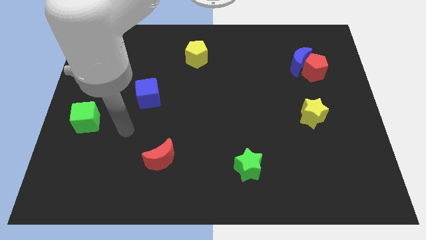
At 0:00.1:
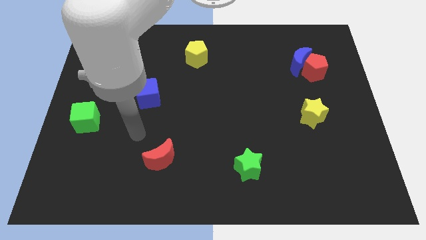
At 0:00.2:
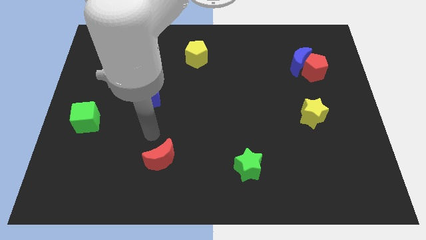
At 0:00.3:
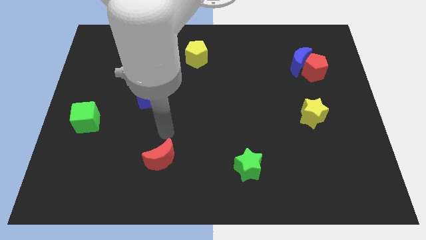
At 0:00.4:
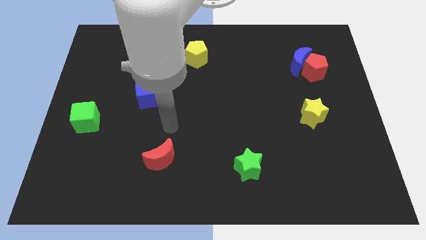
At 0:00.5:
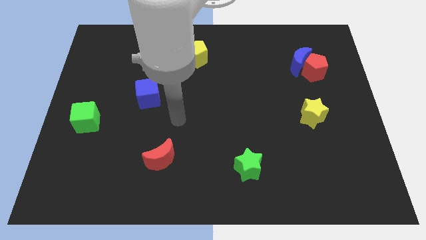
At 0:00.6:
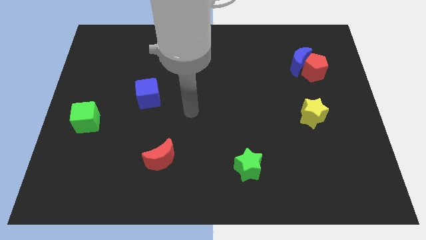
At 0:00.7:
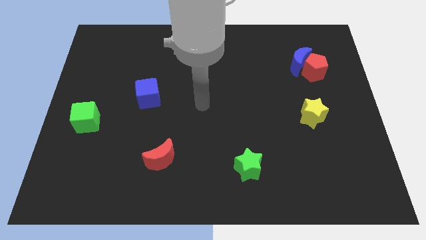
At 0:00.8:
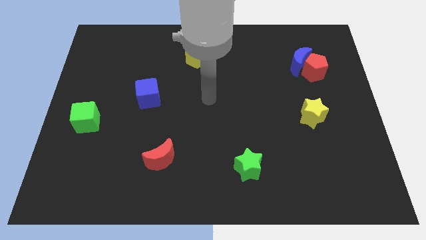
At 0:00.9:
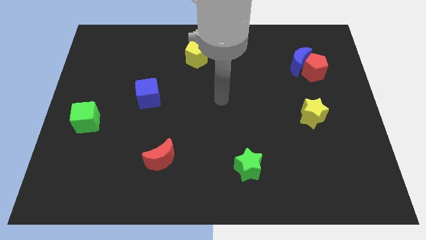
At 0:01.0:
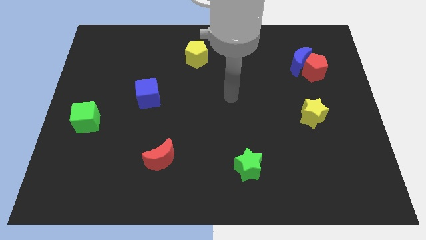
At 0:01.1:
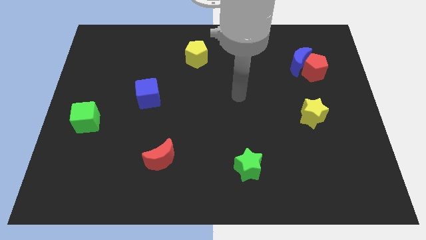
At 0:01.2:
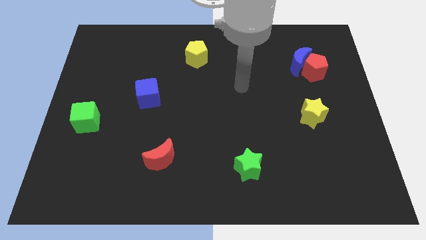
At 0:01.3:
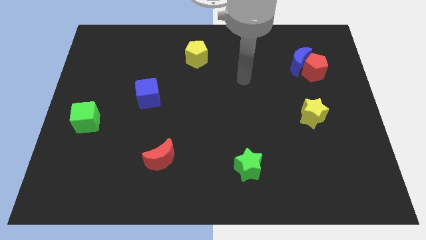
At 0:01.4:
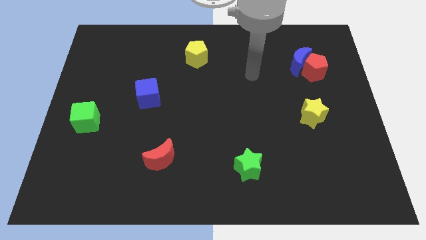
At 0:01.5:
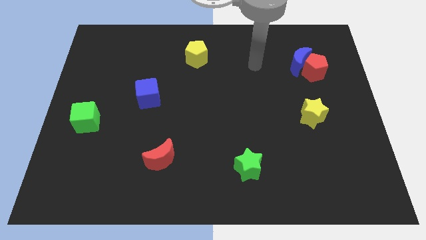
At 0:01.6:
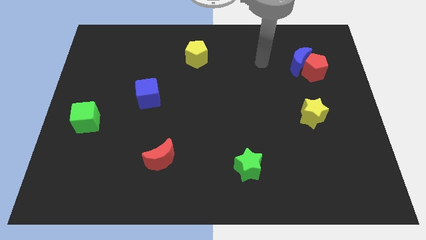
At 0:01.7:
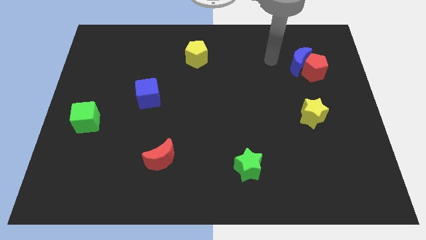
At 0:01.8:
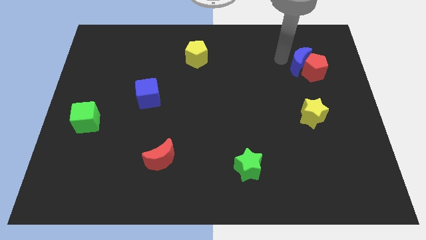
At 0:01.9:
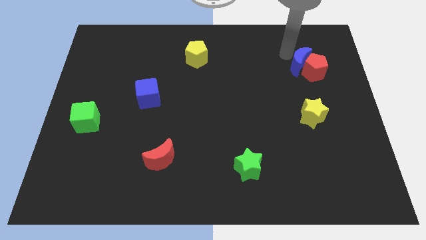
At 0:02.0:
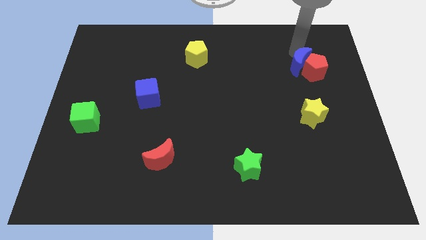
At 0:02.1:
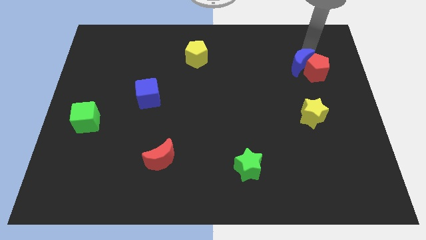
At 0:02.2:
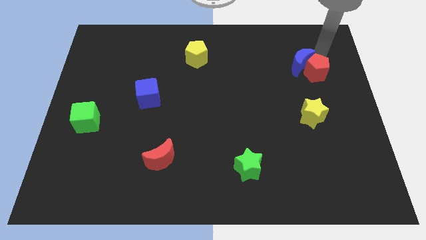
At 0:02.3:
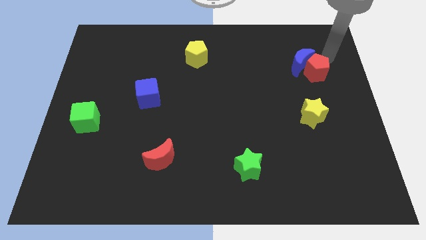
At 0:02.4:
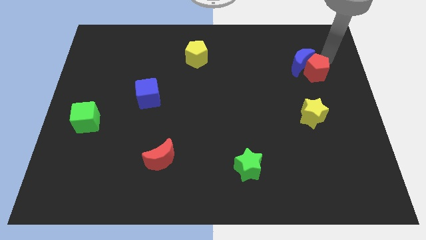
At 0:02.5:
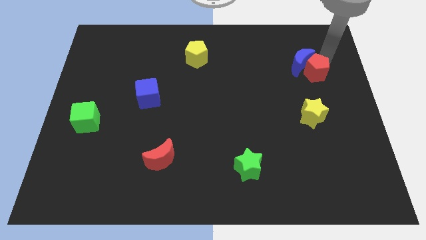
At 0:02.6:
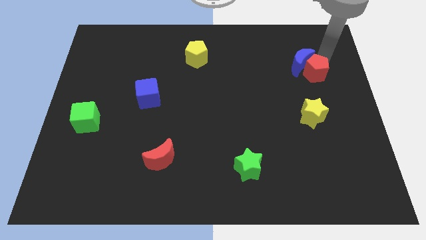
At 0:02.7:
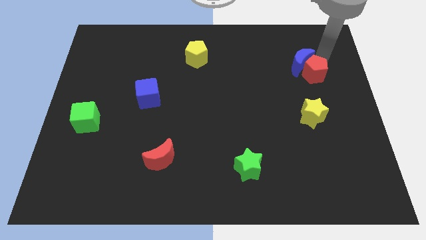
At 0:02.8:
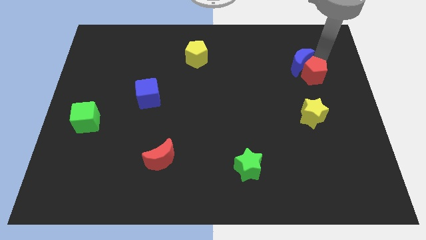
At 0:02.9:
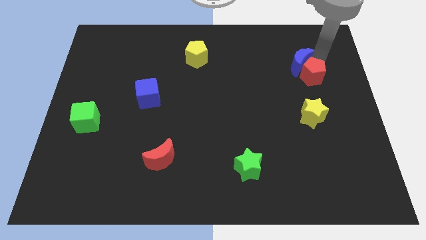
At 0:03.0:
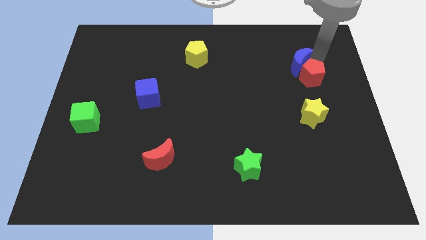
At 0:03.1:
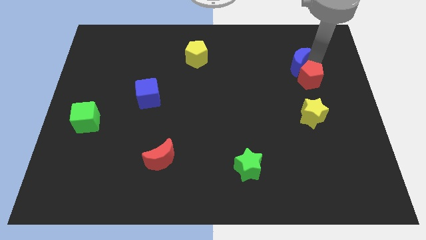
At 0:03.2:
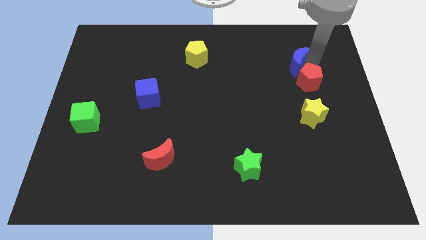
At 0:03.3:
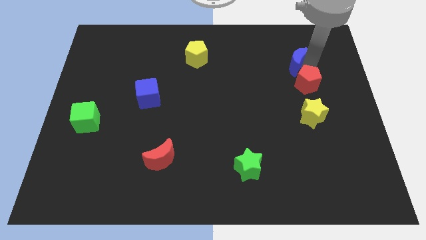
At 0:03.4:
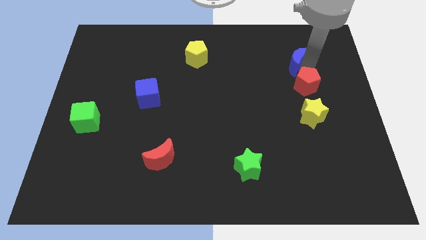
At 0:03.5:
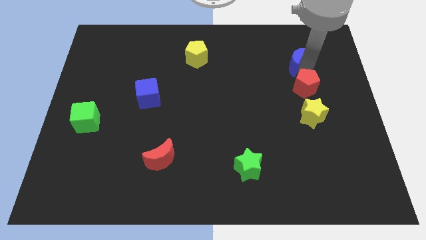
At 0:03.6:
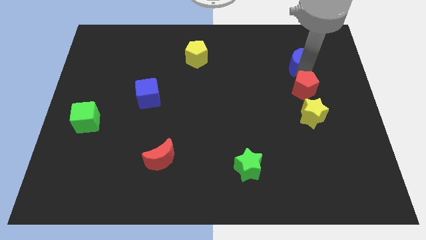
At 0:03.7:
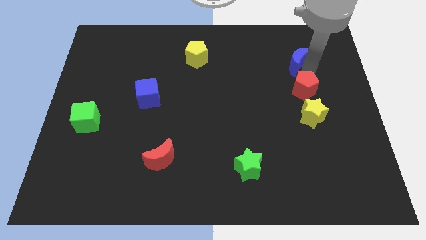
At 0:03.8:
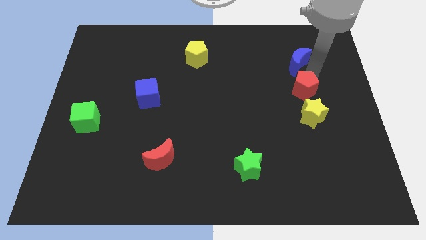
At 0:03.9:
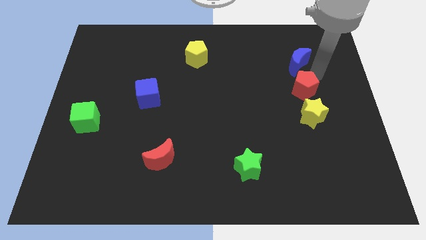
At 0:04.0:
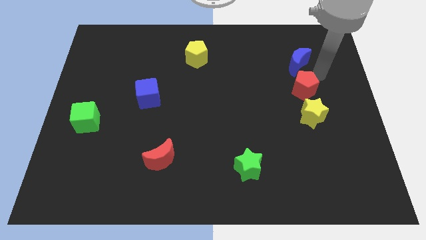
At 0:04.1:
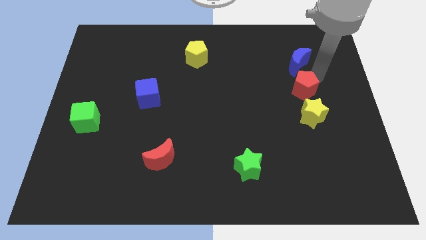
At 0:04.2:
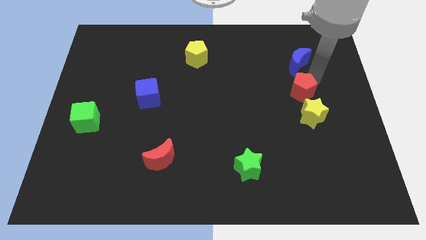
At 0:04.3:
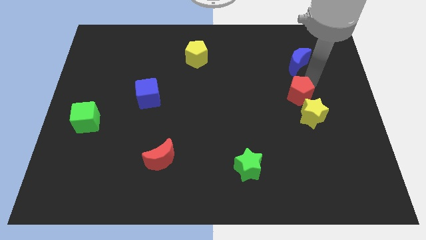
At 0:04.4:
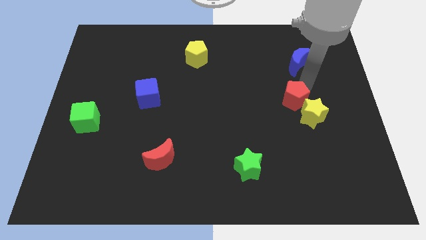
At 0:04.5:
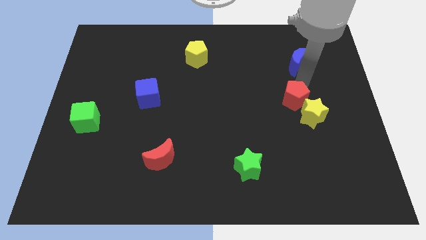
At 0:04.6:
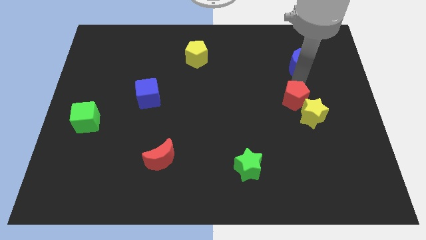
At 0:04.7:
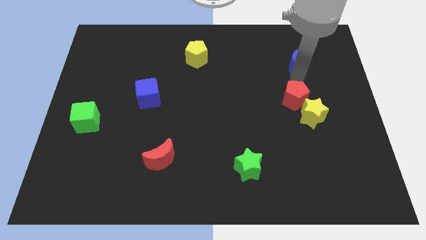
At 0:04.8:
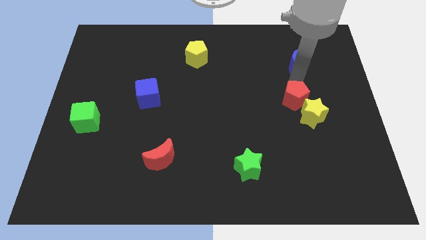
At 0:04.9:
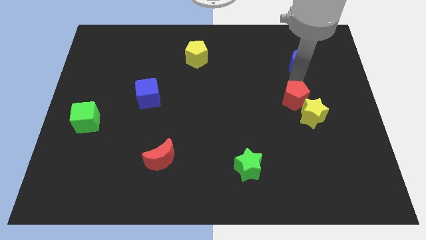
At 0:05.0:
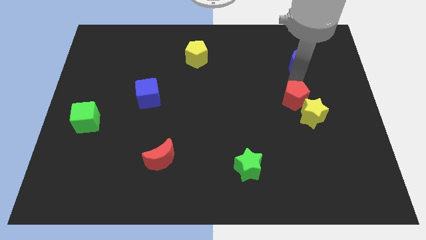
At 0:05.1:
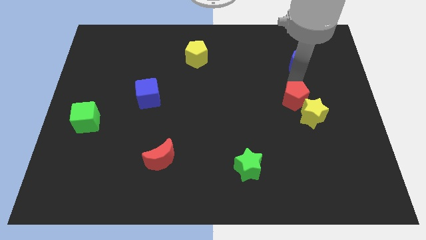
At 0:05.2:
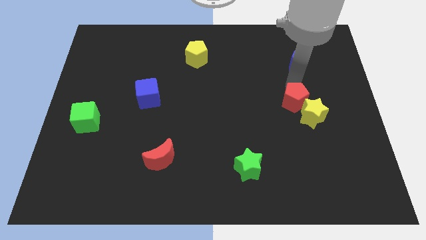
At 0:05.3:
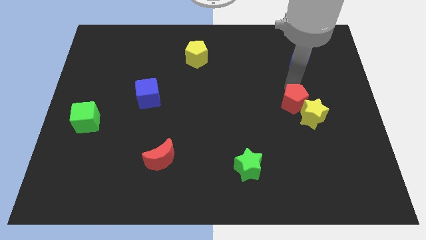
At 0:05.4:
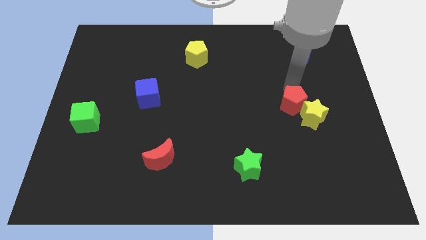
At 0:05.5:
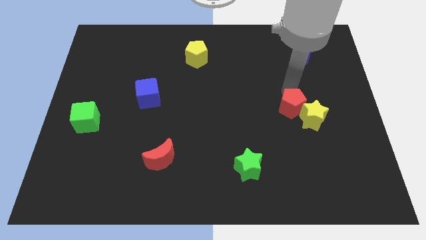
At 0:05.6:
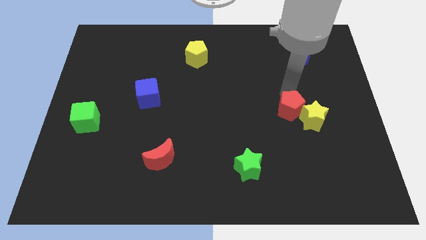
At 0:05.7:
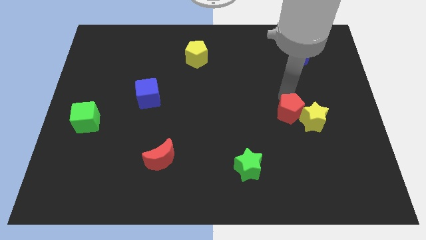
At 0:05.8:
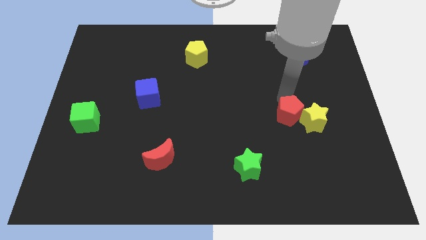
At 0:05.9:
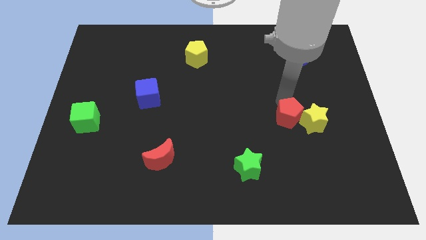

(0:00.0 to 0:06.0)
move the red pentagon to the bottom left of the yellow star
